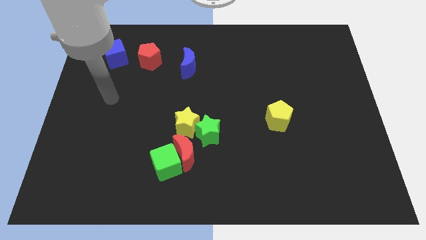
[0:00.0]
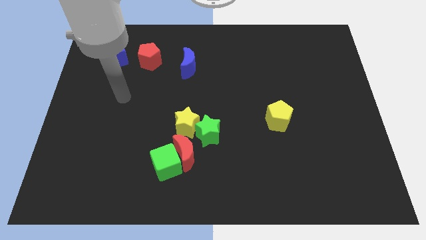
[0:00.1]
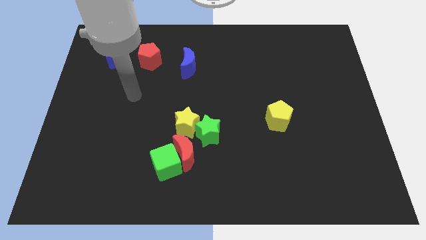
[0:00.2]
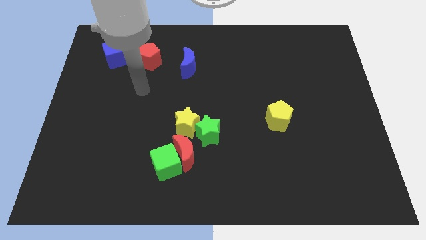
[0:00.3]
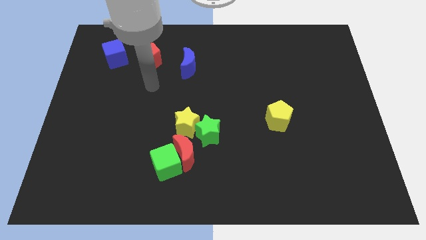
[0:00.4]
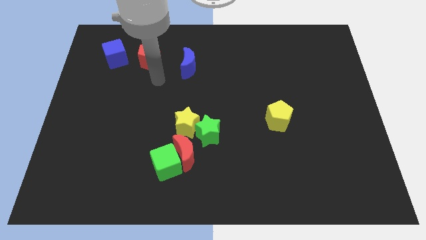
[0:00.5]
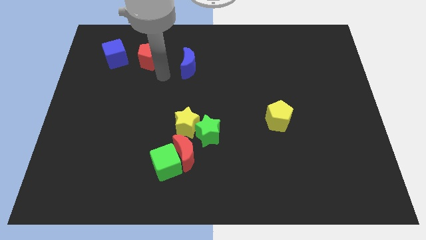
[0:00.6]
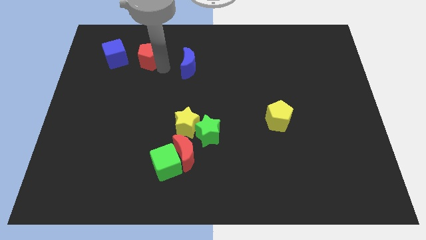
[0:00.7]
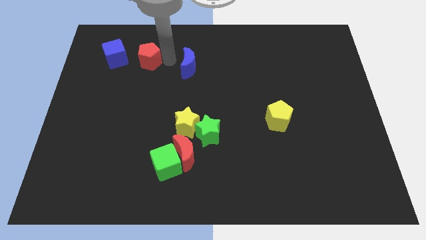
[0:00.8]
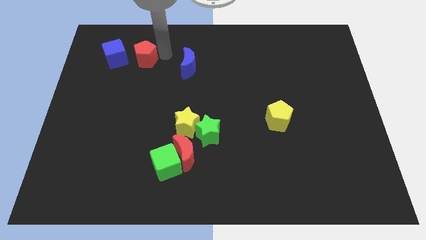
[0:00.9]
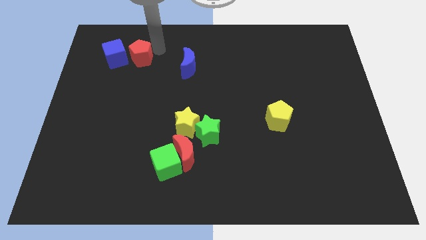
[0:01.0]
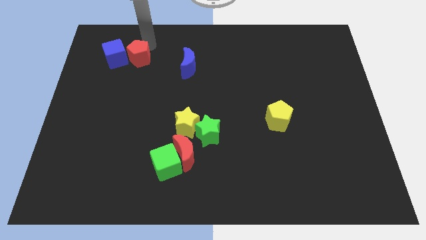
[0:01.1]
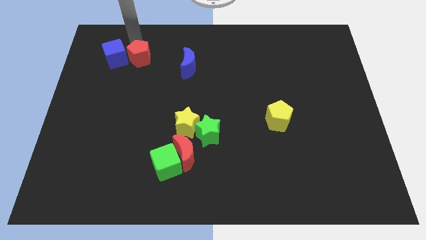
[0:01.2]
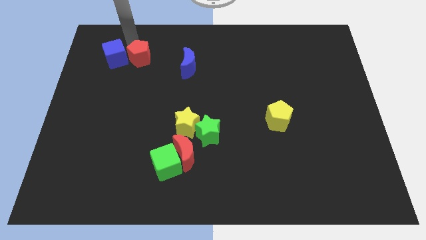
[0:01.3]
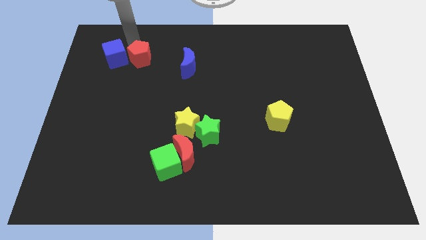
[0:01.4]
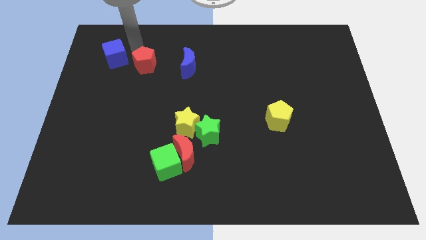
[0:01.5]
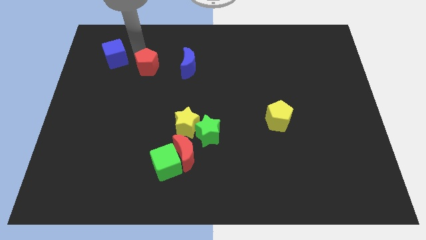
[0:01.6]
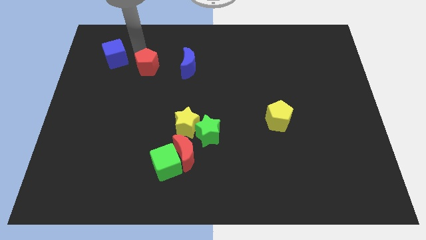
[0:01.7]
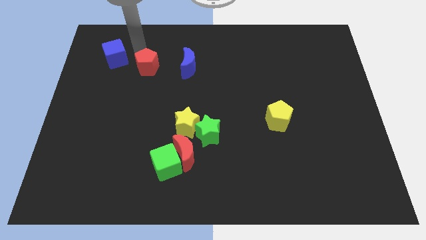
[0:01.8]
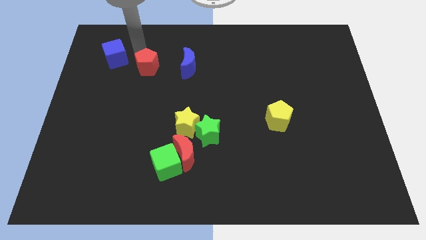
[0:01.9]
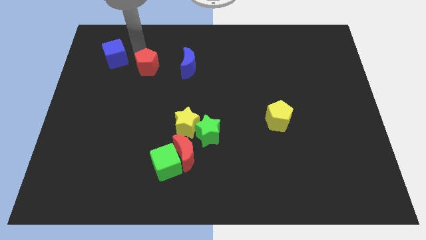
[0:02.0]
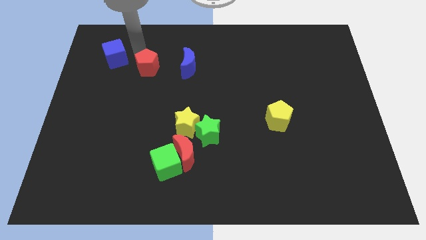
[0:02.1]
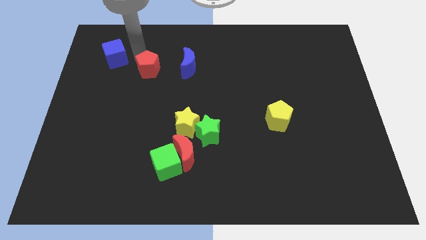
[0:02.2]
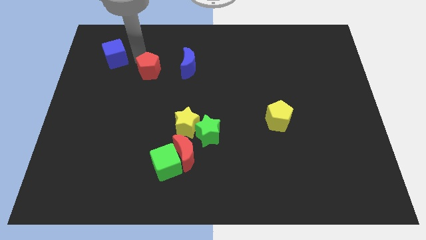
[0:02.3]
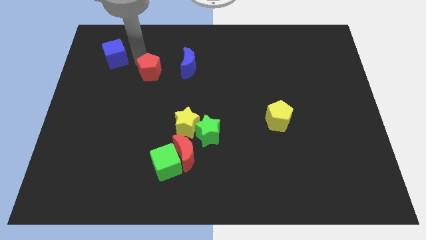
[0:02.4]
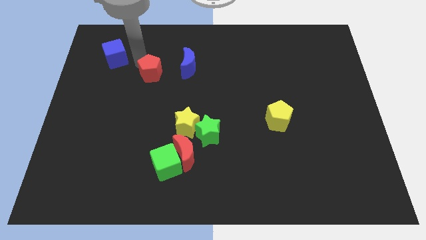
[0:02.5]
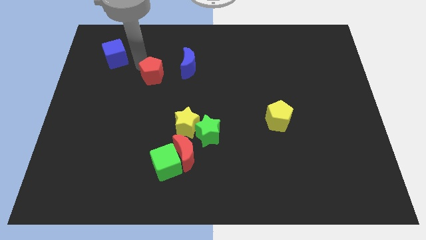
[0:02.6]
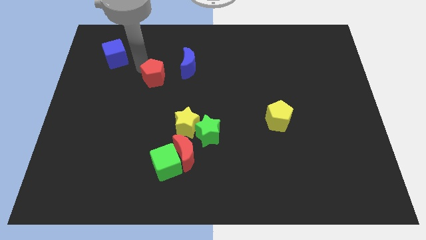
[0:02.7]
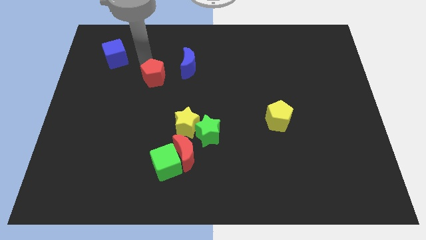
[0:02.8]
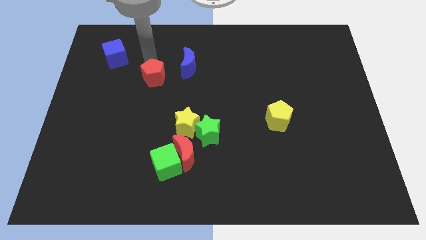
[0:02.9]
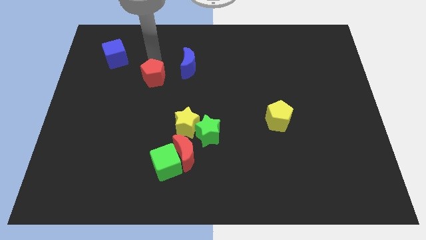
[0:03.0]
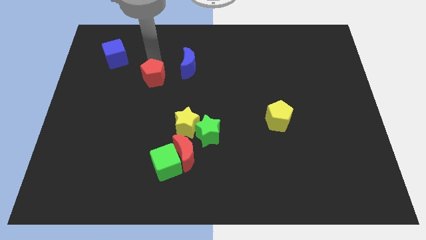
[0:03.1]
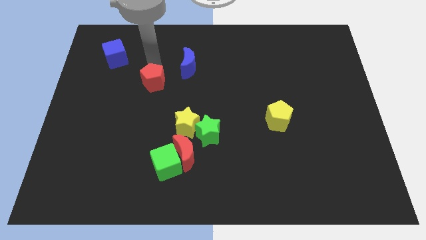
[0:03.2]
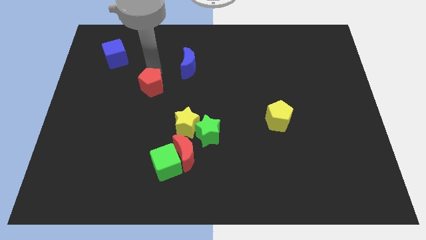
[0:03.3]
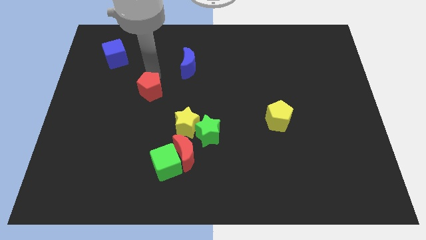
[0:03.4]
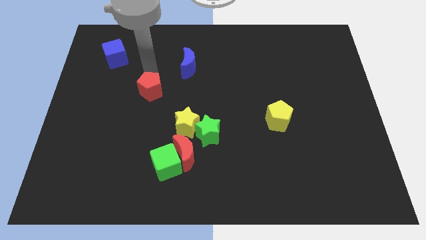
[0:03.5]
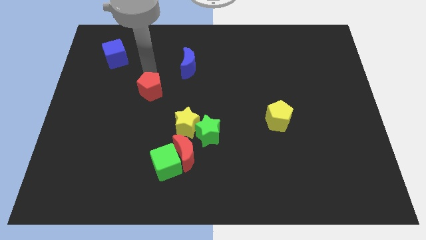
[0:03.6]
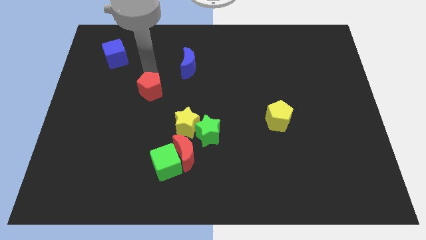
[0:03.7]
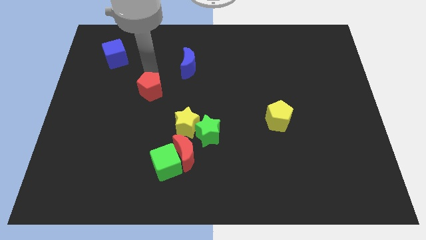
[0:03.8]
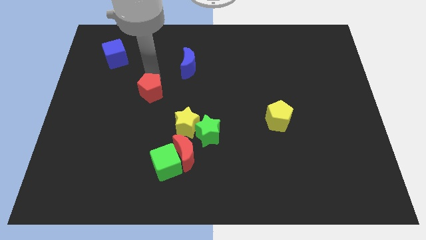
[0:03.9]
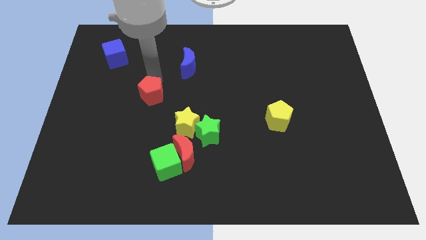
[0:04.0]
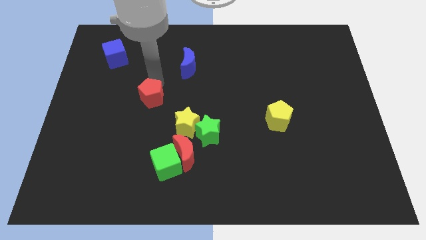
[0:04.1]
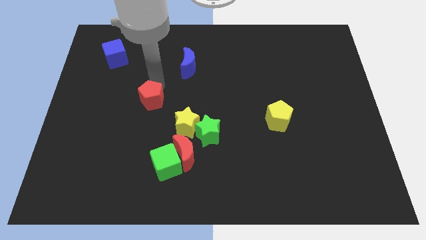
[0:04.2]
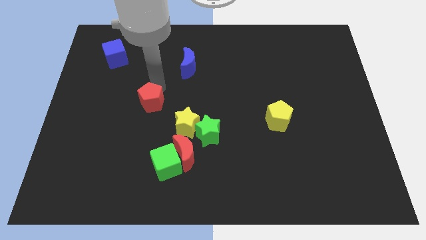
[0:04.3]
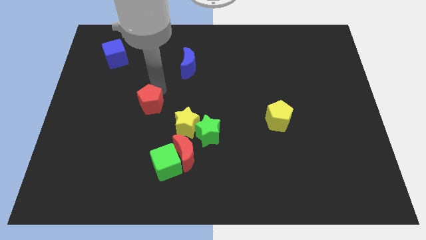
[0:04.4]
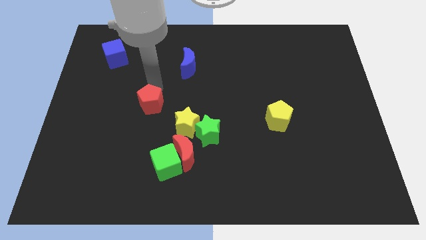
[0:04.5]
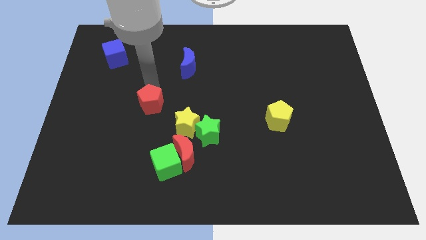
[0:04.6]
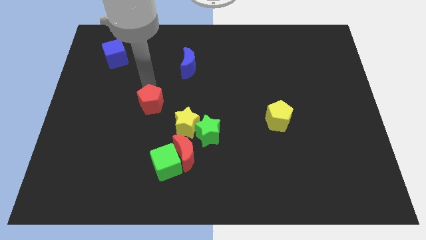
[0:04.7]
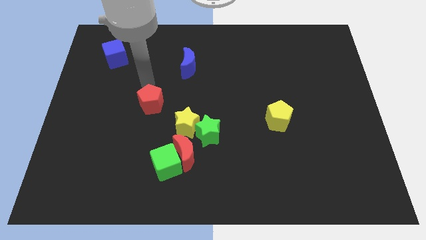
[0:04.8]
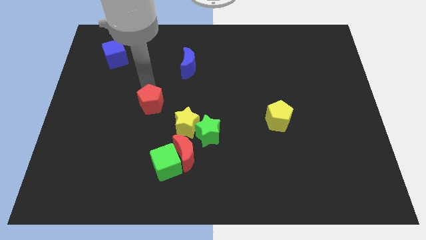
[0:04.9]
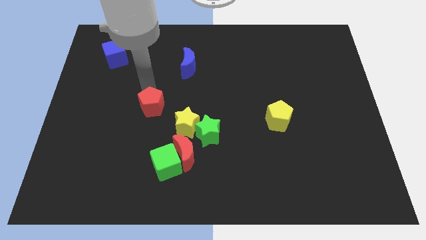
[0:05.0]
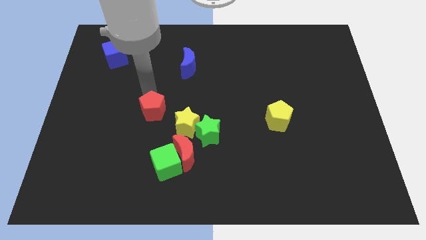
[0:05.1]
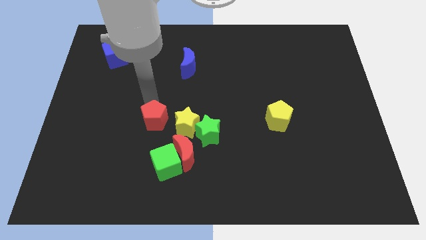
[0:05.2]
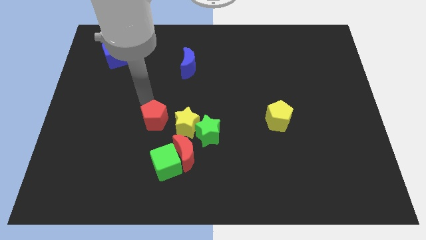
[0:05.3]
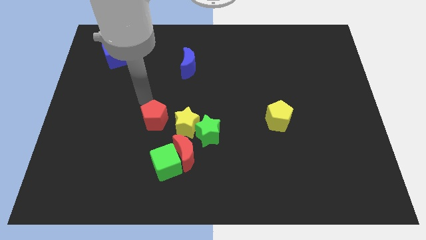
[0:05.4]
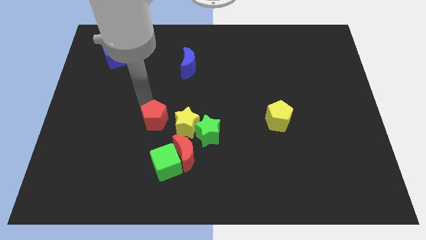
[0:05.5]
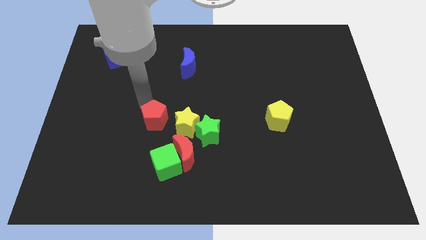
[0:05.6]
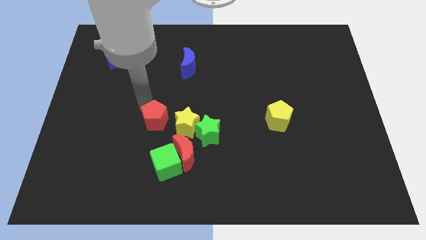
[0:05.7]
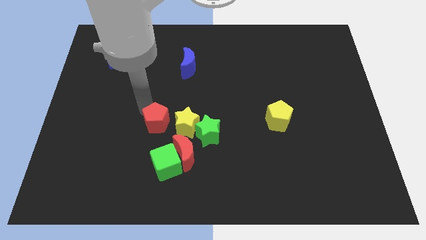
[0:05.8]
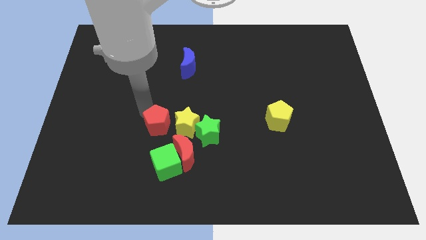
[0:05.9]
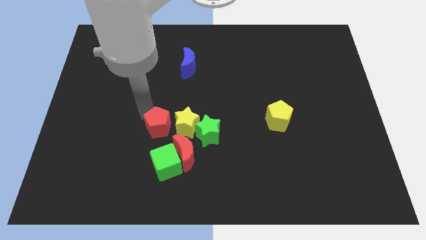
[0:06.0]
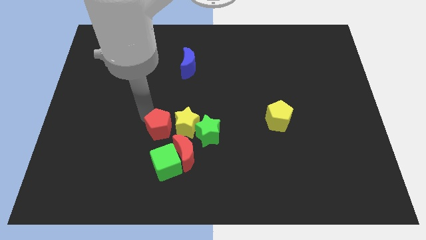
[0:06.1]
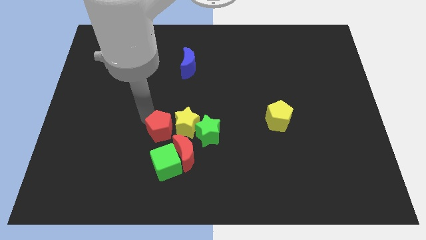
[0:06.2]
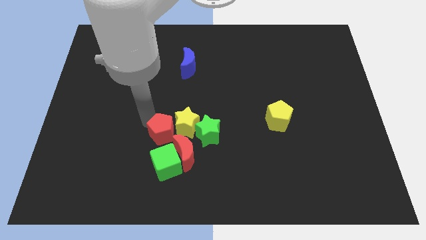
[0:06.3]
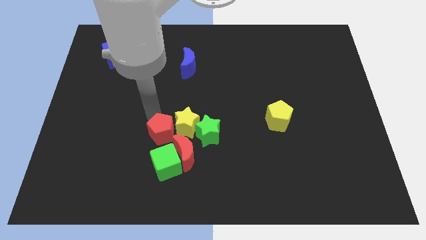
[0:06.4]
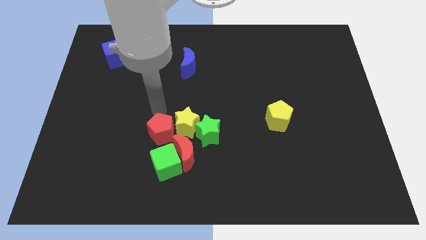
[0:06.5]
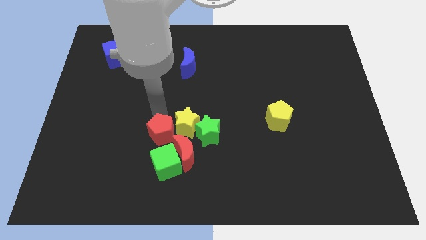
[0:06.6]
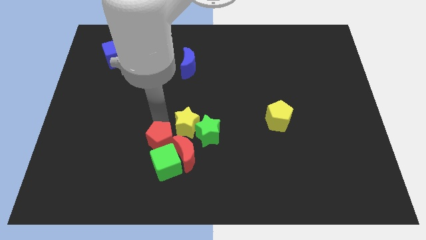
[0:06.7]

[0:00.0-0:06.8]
put the red pentagon towards the green cube
